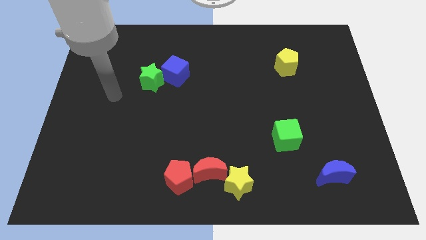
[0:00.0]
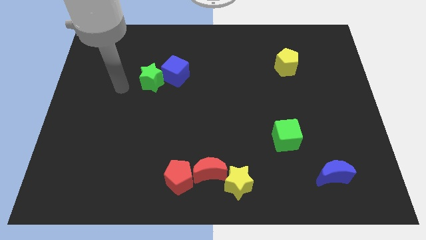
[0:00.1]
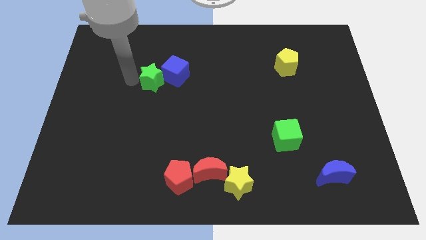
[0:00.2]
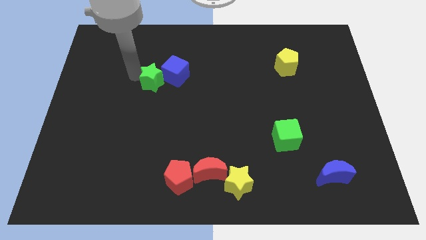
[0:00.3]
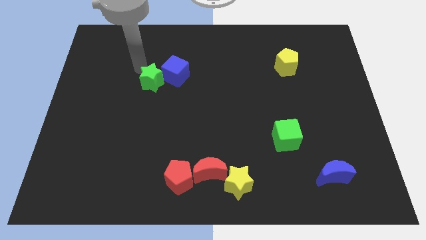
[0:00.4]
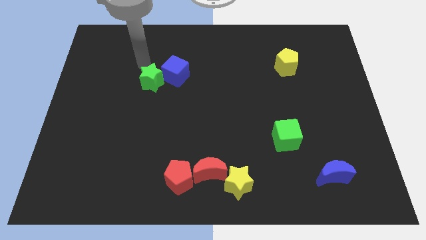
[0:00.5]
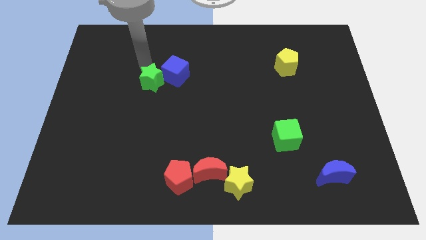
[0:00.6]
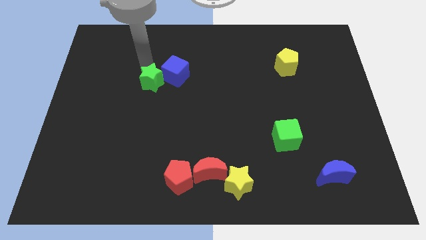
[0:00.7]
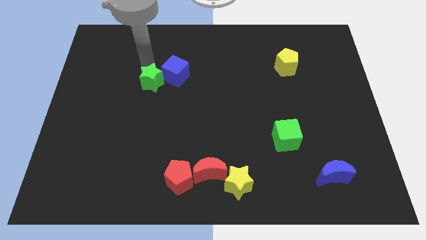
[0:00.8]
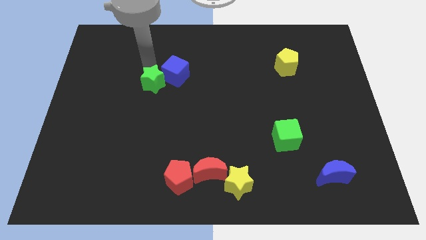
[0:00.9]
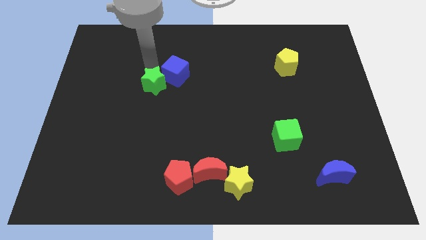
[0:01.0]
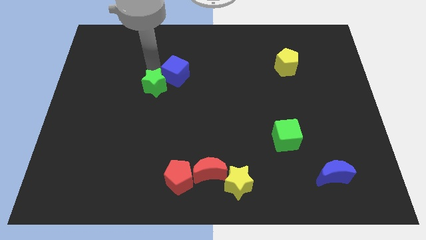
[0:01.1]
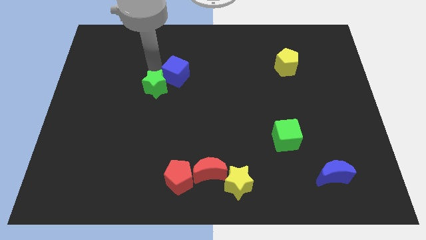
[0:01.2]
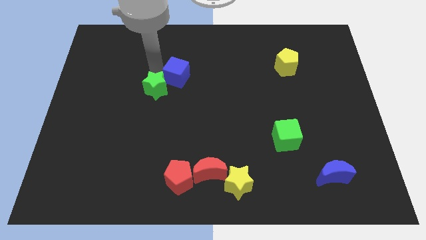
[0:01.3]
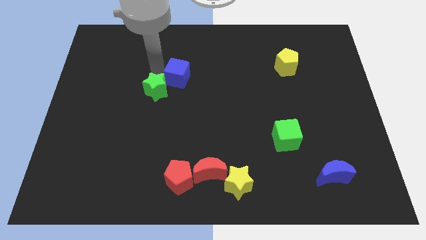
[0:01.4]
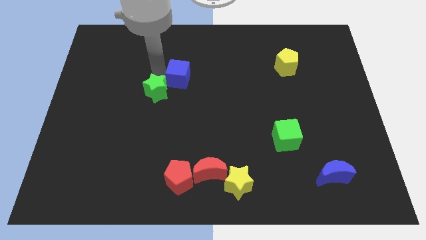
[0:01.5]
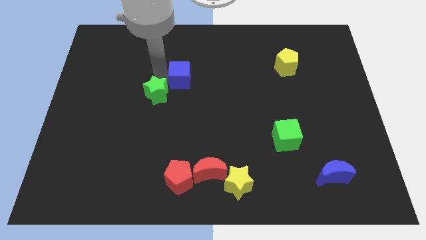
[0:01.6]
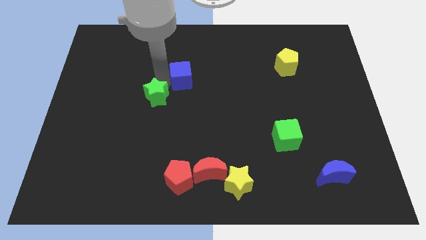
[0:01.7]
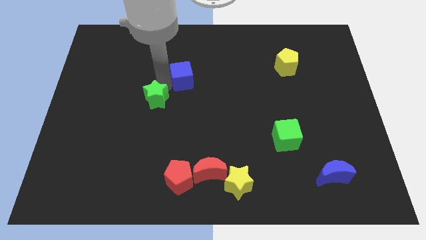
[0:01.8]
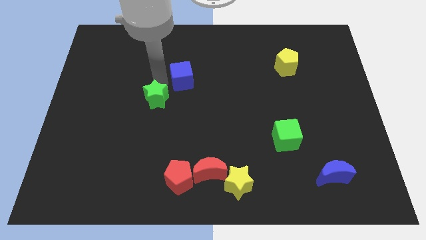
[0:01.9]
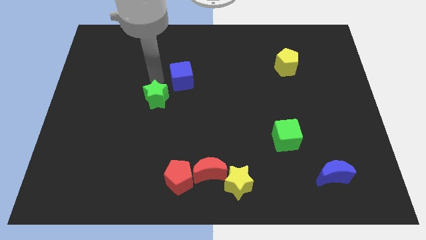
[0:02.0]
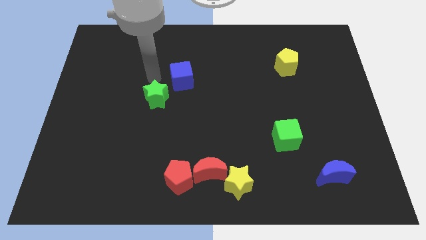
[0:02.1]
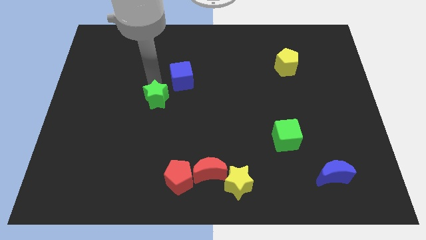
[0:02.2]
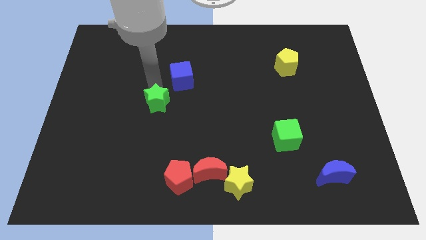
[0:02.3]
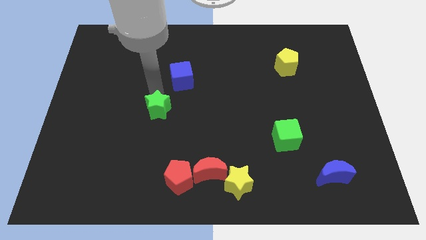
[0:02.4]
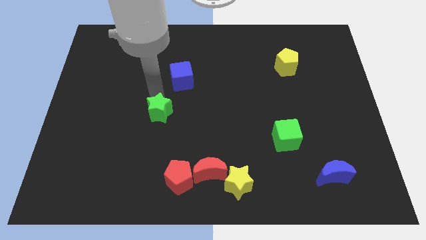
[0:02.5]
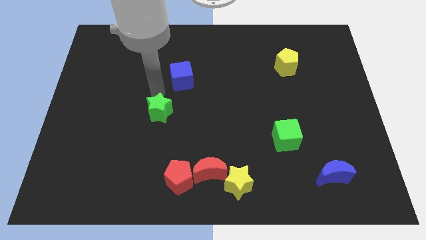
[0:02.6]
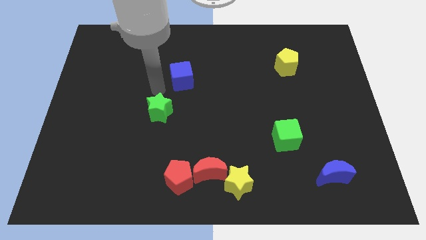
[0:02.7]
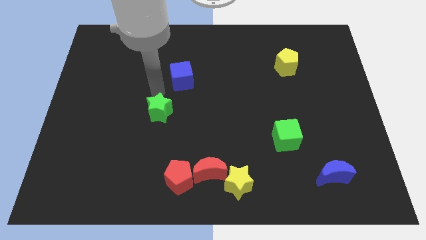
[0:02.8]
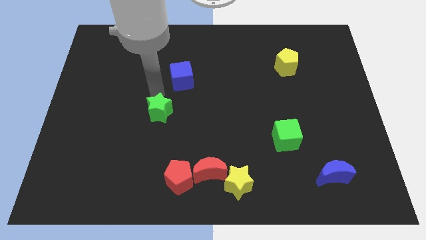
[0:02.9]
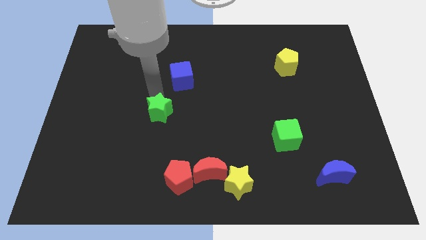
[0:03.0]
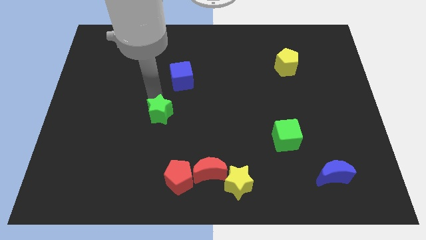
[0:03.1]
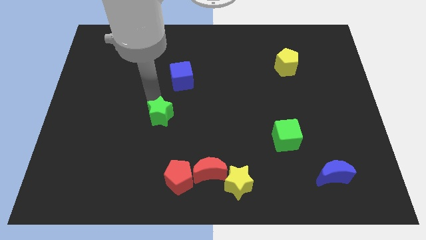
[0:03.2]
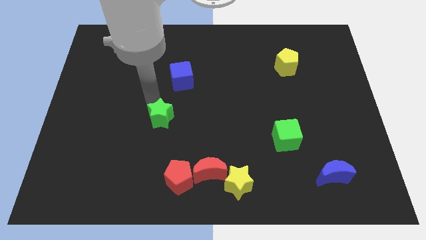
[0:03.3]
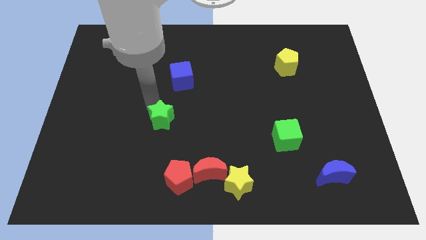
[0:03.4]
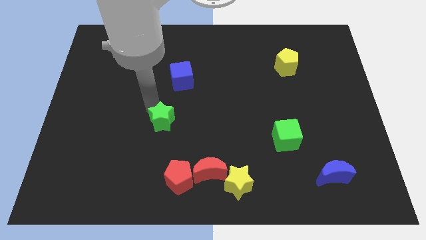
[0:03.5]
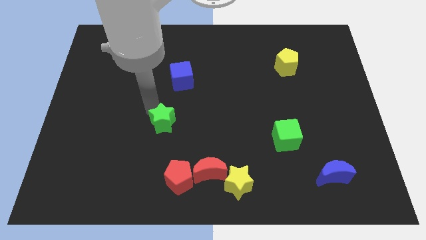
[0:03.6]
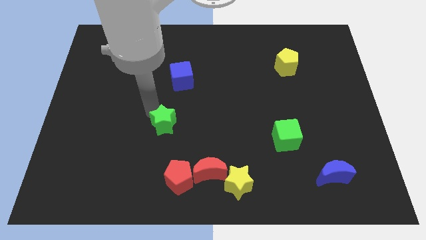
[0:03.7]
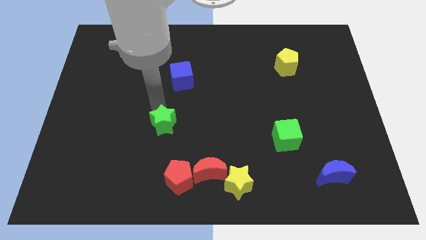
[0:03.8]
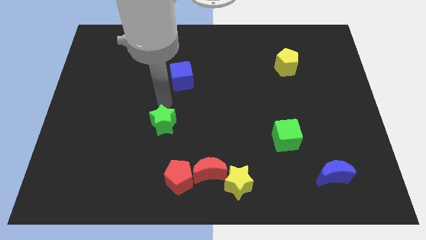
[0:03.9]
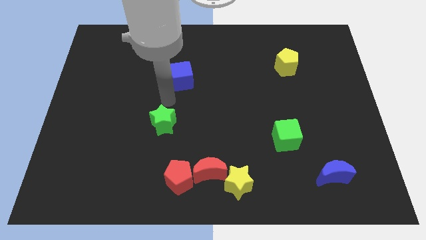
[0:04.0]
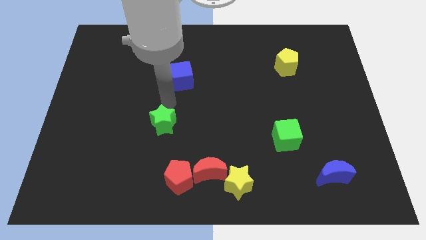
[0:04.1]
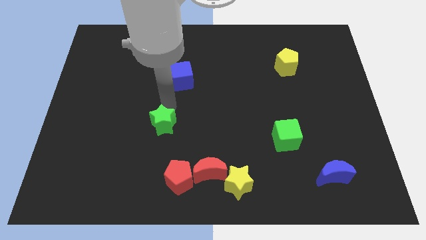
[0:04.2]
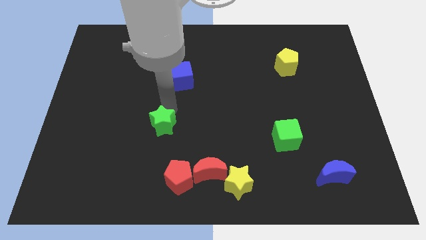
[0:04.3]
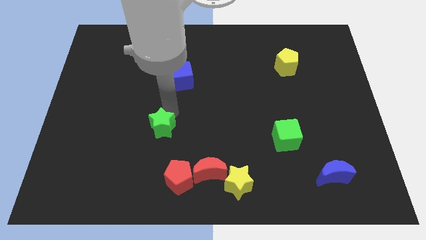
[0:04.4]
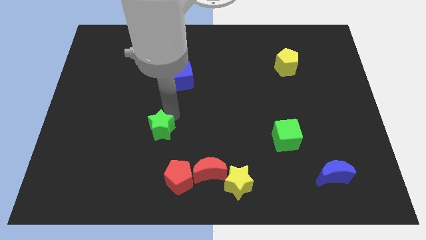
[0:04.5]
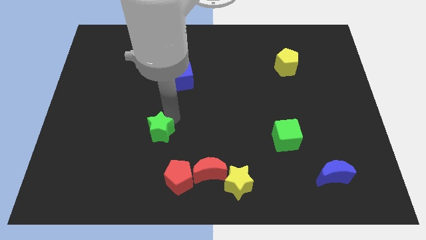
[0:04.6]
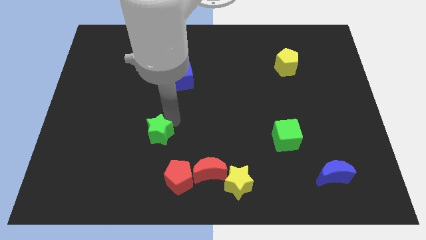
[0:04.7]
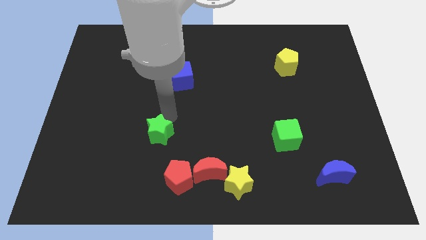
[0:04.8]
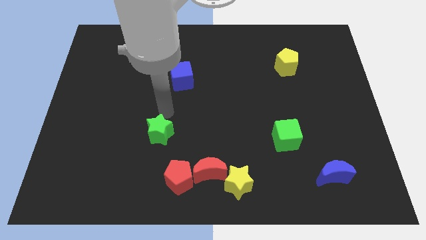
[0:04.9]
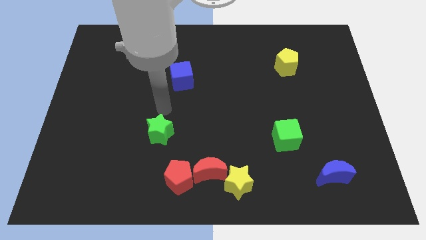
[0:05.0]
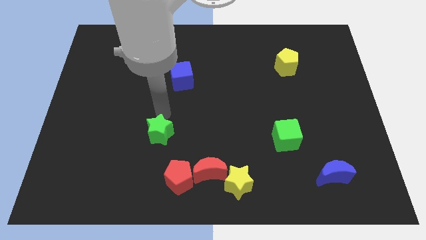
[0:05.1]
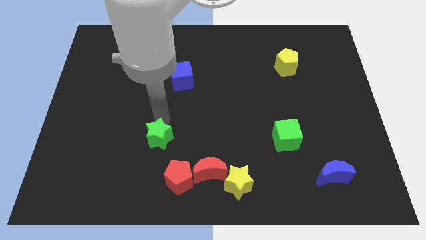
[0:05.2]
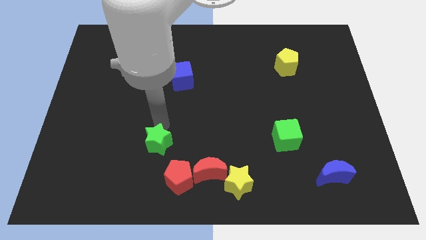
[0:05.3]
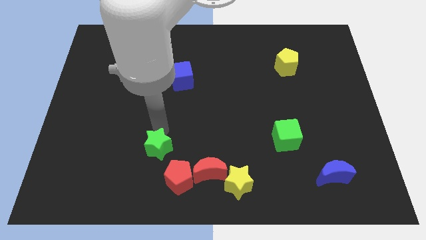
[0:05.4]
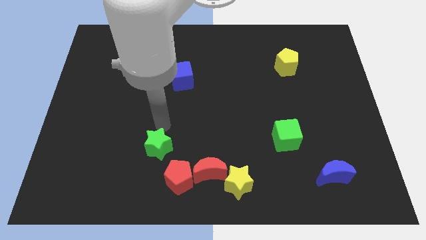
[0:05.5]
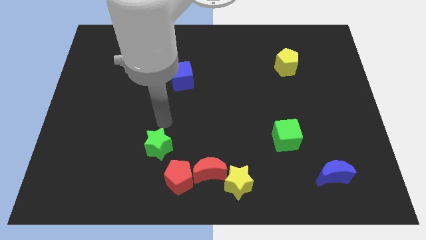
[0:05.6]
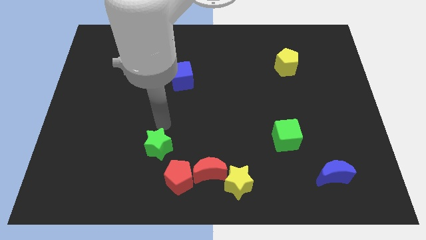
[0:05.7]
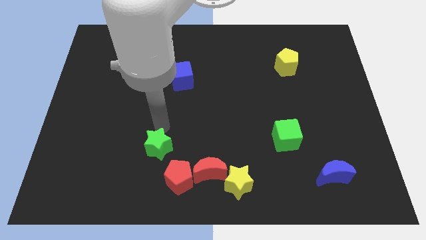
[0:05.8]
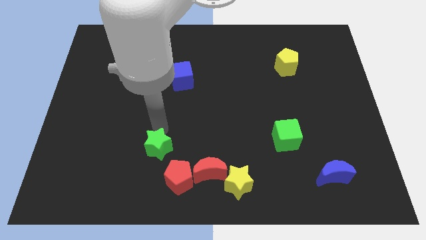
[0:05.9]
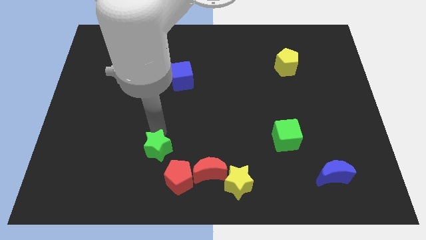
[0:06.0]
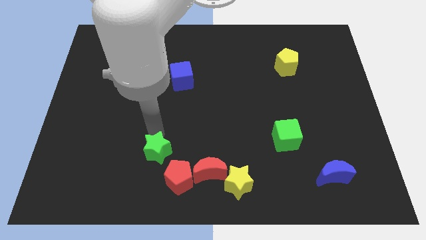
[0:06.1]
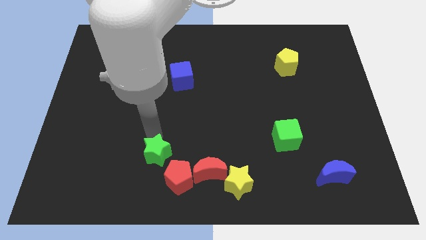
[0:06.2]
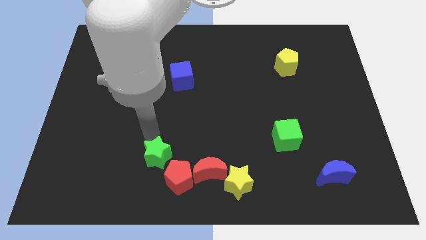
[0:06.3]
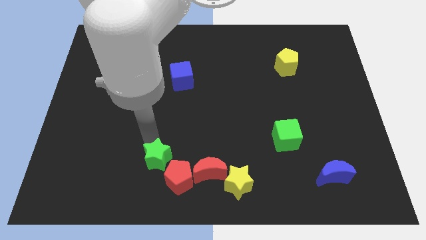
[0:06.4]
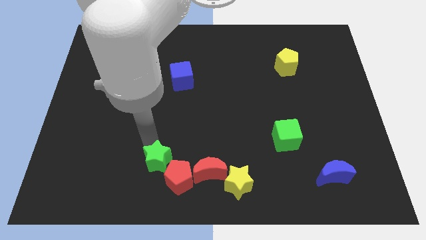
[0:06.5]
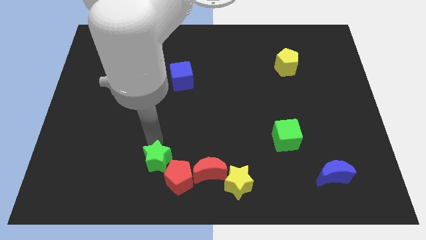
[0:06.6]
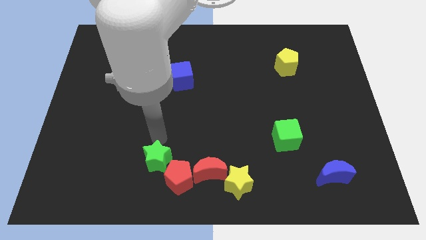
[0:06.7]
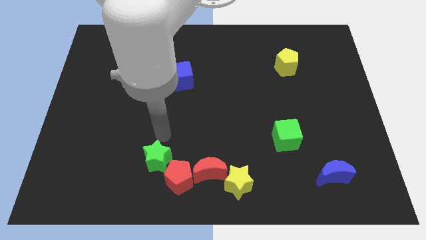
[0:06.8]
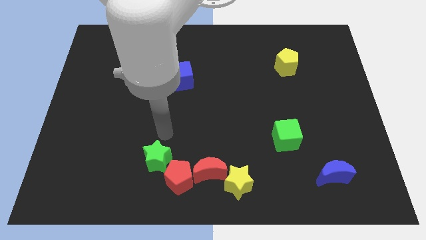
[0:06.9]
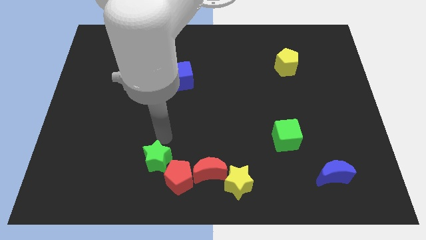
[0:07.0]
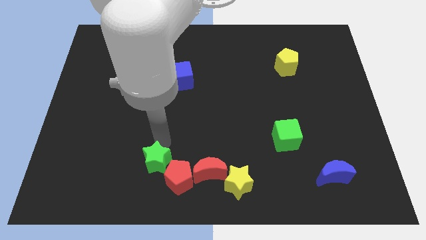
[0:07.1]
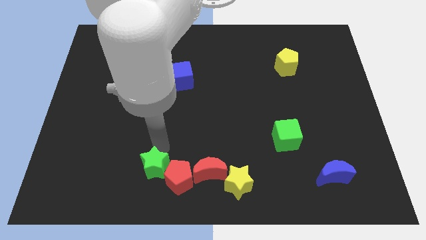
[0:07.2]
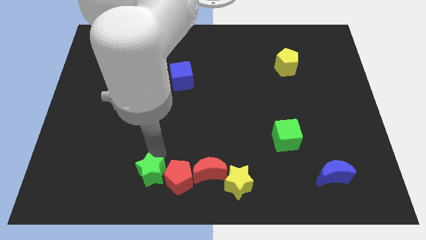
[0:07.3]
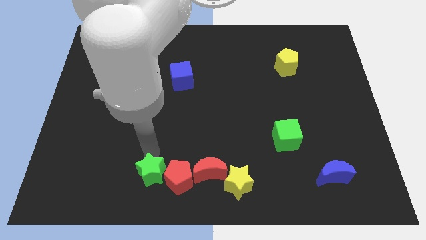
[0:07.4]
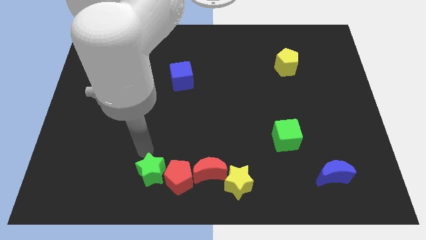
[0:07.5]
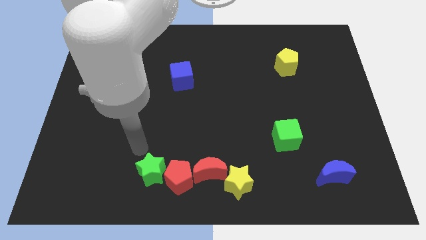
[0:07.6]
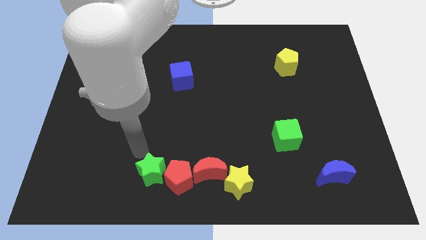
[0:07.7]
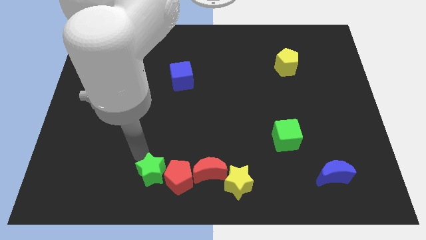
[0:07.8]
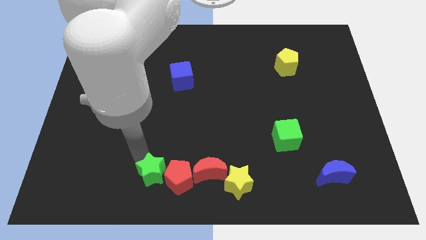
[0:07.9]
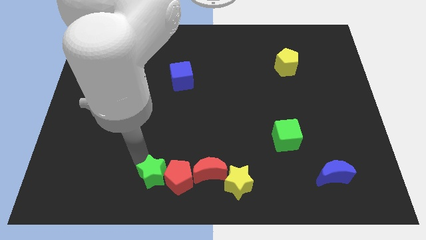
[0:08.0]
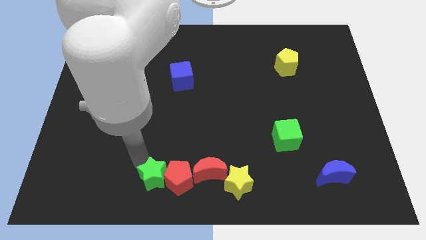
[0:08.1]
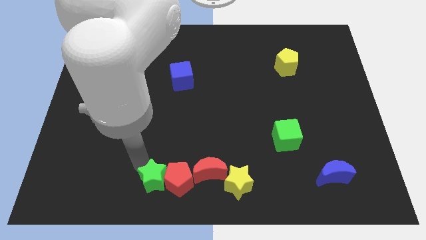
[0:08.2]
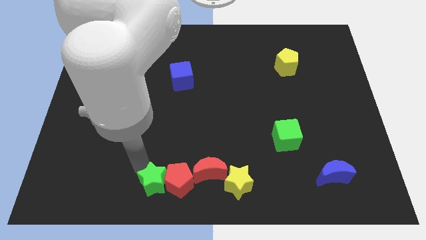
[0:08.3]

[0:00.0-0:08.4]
put the green star to the bottom
